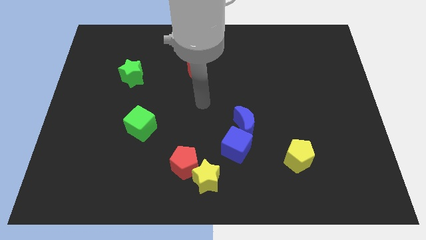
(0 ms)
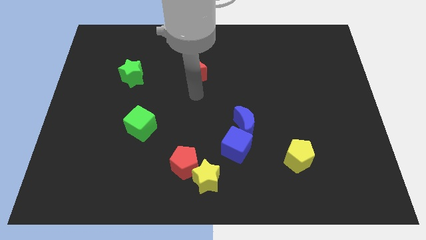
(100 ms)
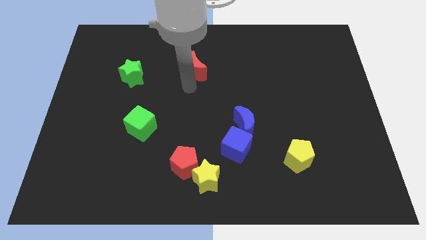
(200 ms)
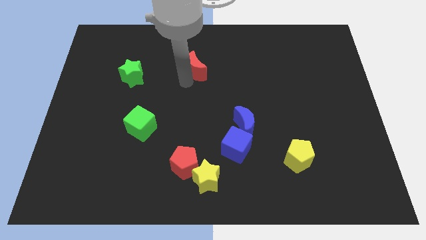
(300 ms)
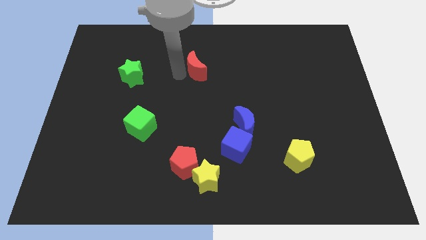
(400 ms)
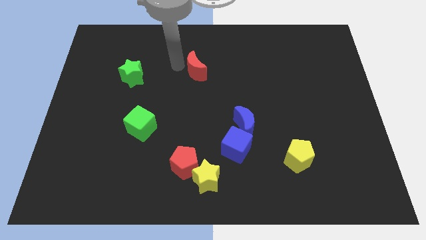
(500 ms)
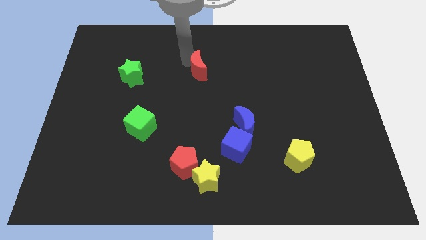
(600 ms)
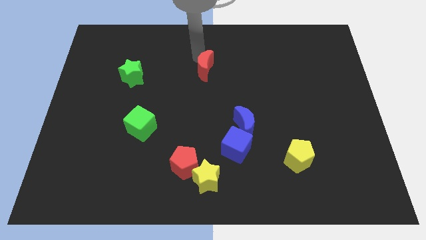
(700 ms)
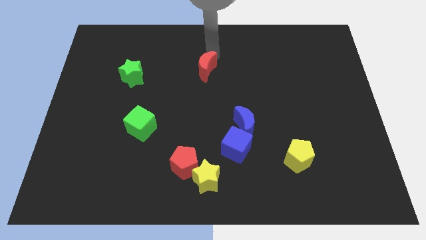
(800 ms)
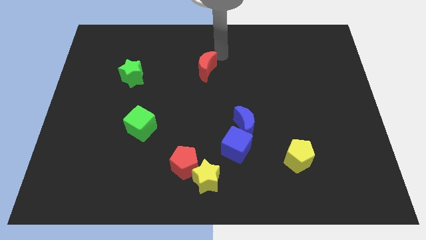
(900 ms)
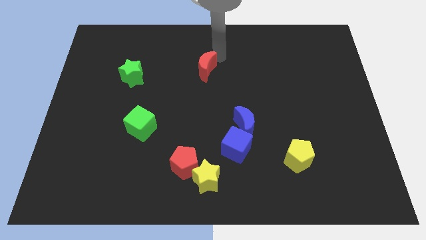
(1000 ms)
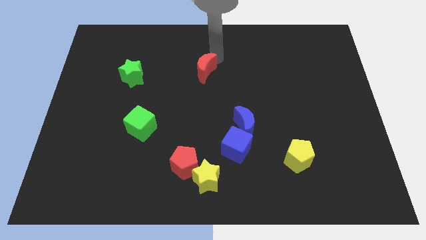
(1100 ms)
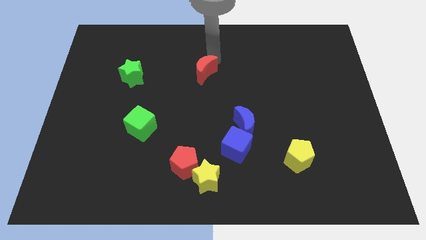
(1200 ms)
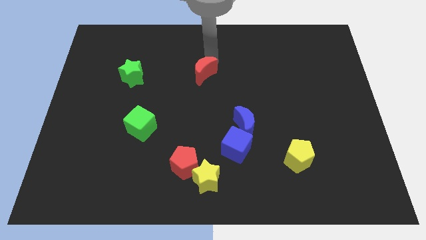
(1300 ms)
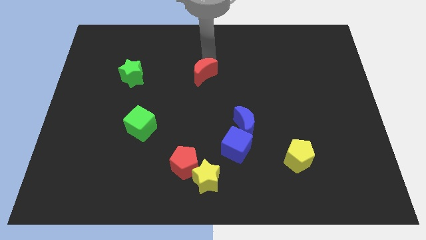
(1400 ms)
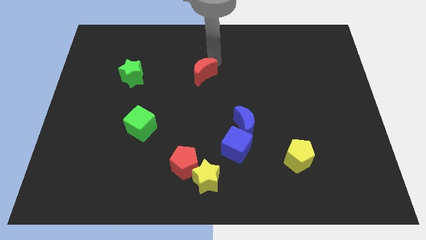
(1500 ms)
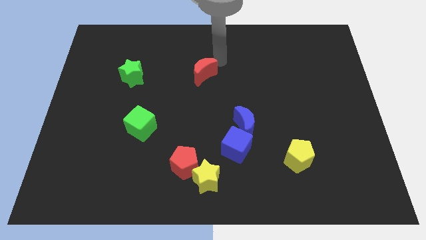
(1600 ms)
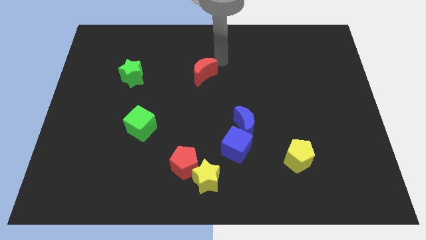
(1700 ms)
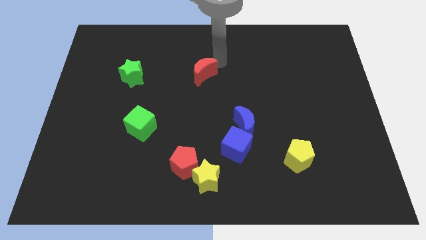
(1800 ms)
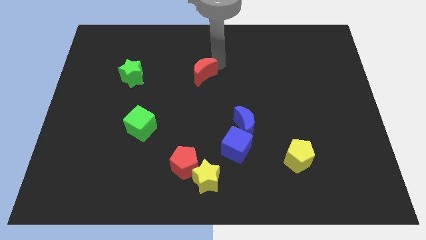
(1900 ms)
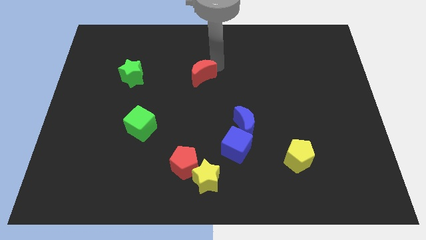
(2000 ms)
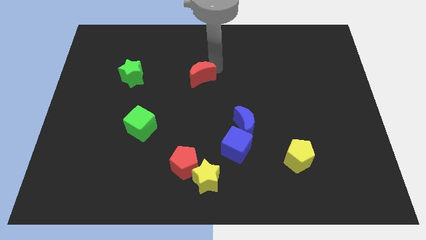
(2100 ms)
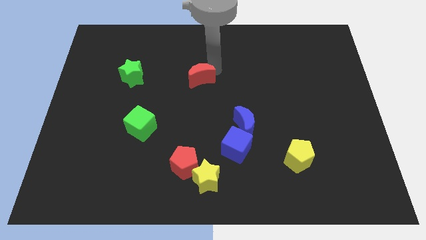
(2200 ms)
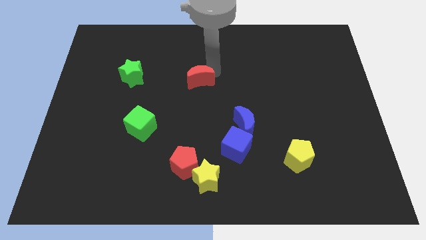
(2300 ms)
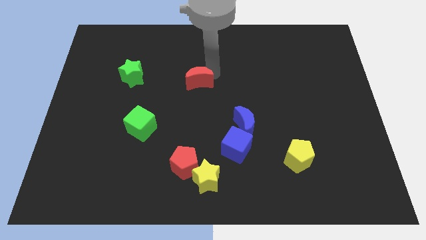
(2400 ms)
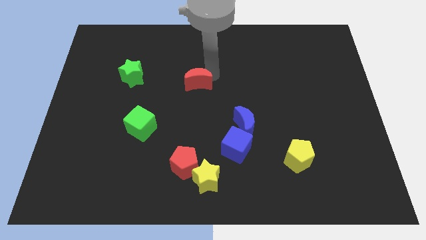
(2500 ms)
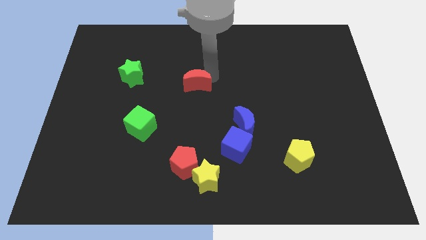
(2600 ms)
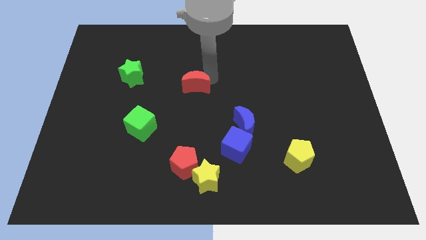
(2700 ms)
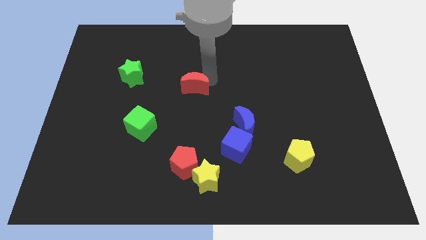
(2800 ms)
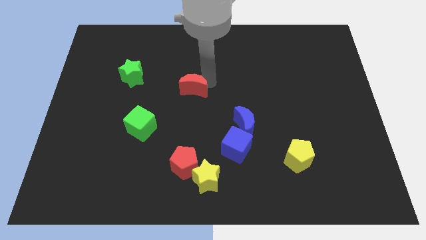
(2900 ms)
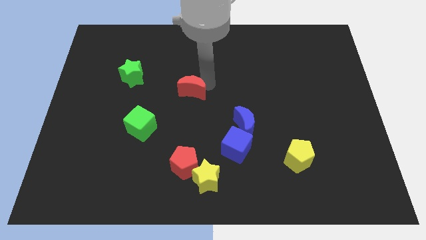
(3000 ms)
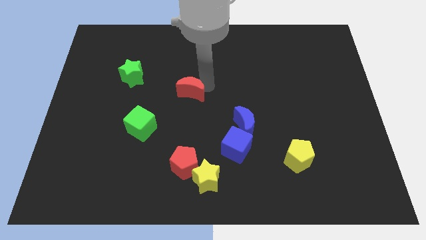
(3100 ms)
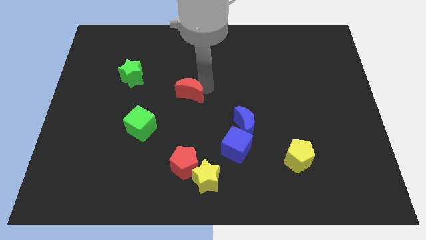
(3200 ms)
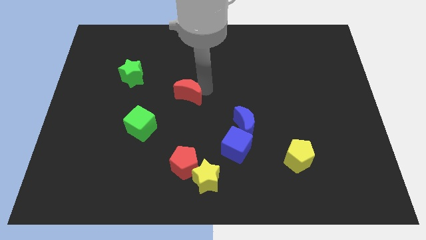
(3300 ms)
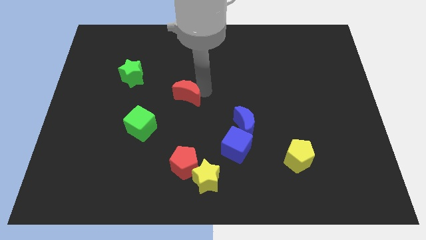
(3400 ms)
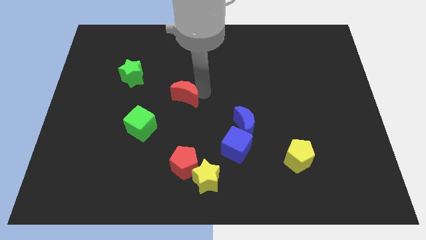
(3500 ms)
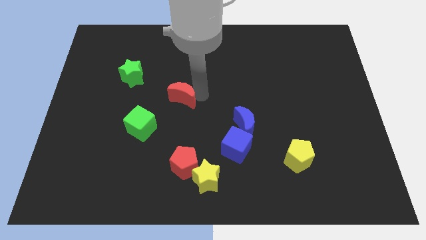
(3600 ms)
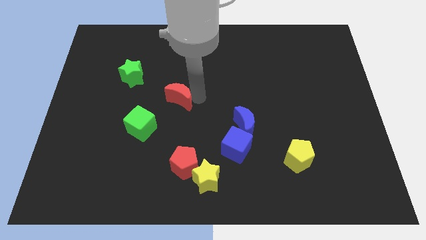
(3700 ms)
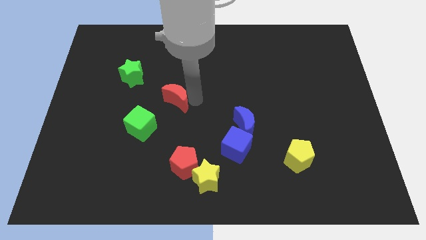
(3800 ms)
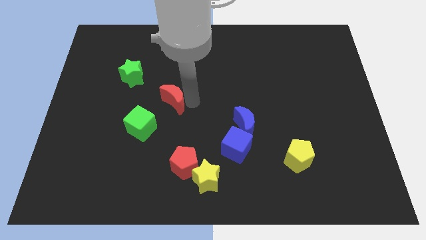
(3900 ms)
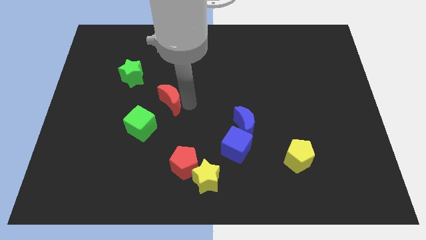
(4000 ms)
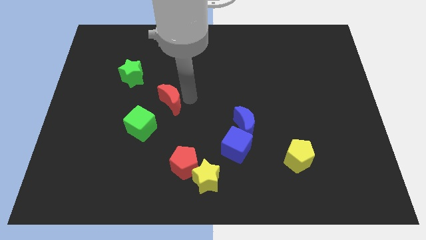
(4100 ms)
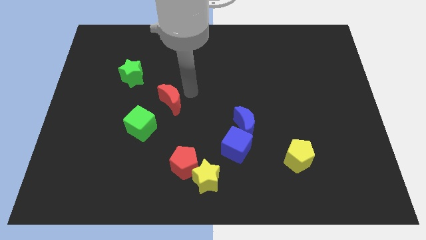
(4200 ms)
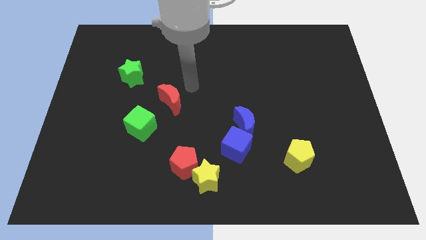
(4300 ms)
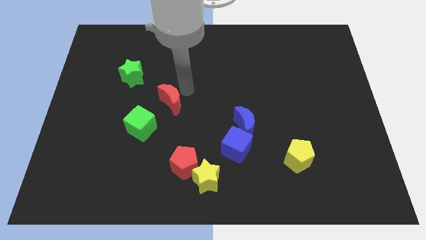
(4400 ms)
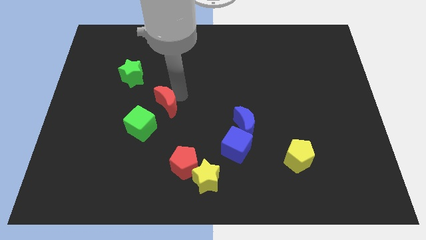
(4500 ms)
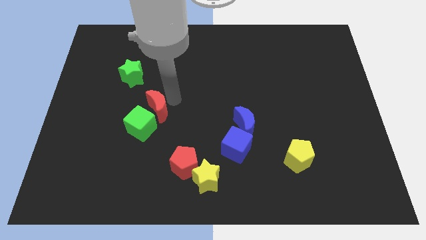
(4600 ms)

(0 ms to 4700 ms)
move the red moon next to the green cube

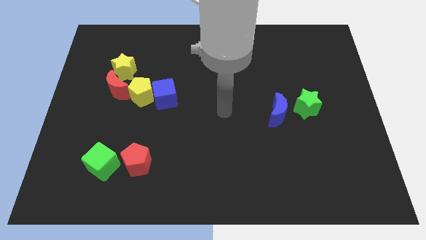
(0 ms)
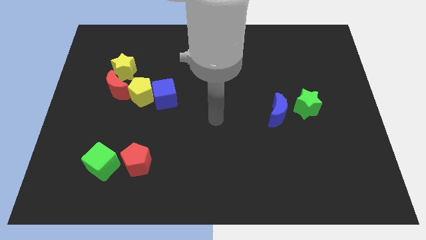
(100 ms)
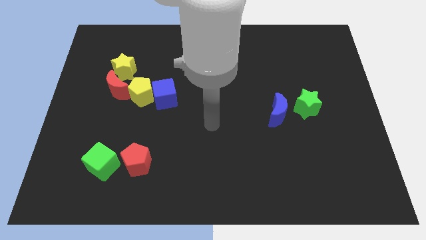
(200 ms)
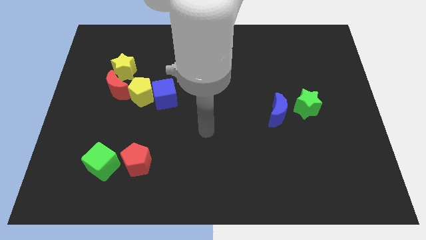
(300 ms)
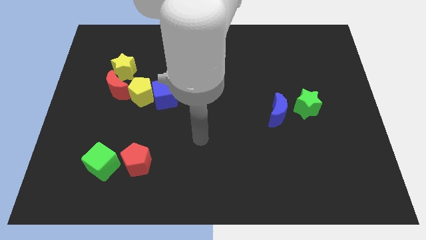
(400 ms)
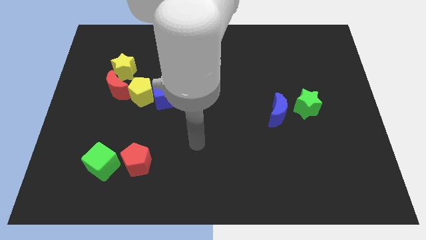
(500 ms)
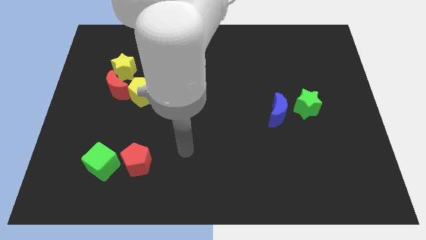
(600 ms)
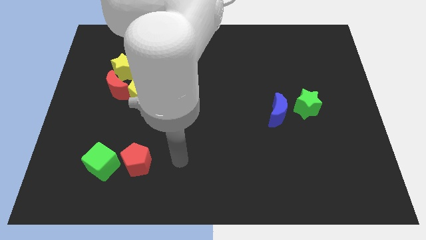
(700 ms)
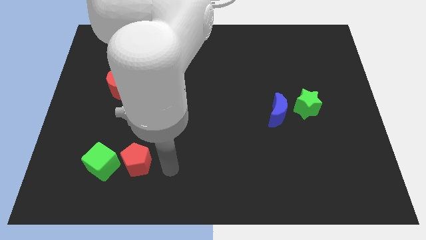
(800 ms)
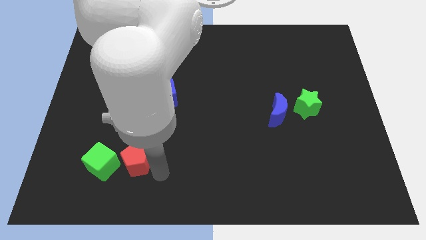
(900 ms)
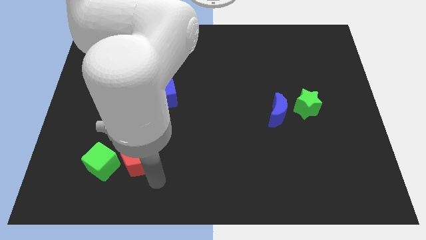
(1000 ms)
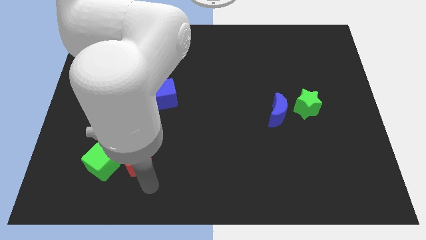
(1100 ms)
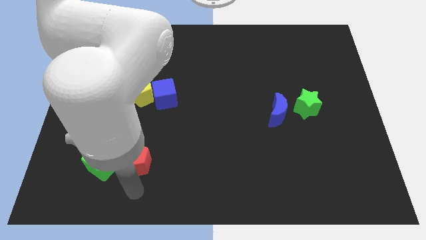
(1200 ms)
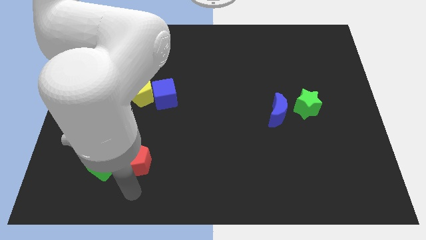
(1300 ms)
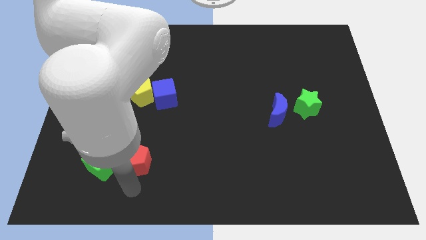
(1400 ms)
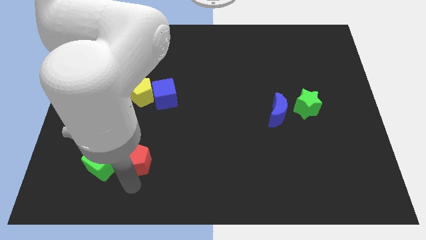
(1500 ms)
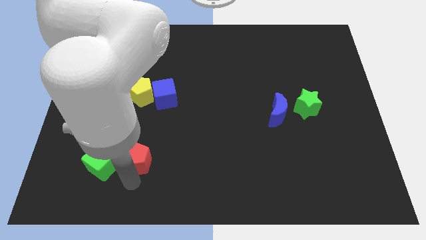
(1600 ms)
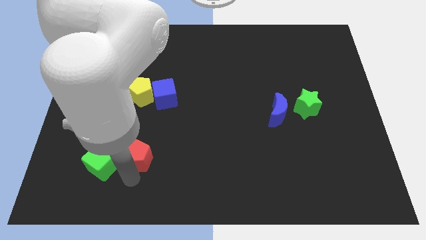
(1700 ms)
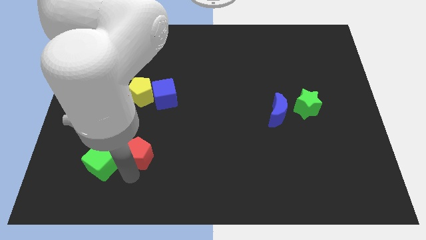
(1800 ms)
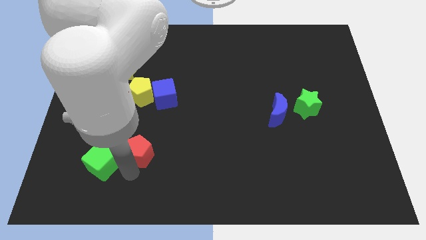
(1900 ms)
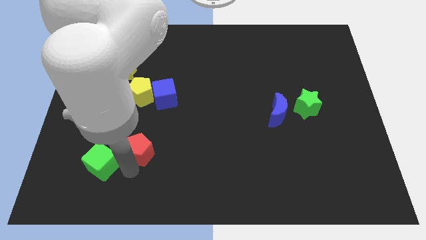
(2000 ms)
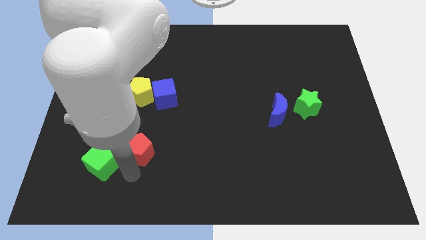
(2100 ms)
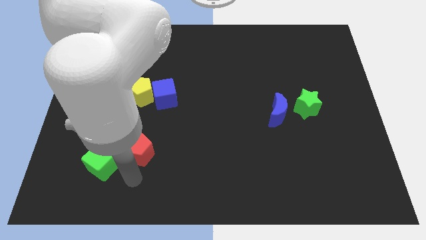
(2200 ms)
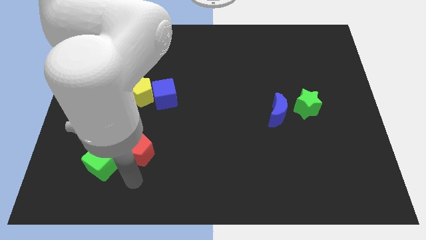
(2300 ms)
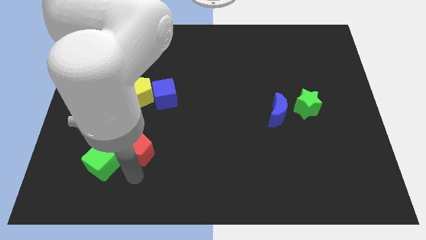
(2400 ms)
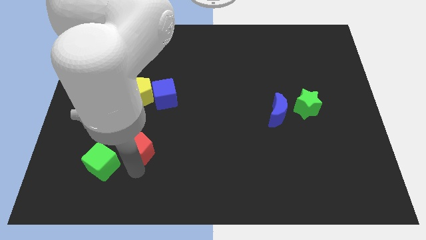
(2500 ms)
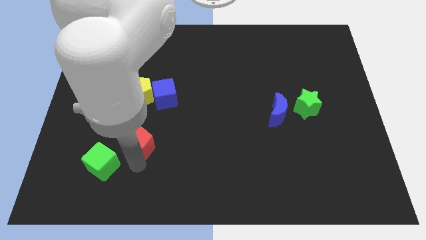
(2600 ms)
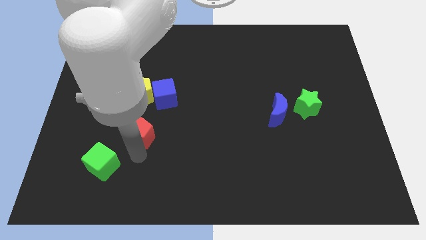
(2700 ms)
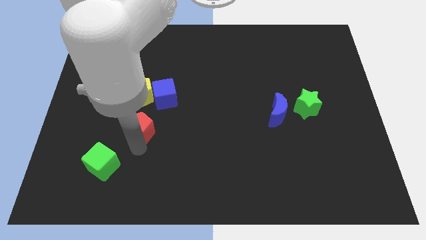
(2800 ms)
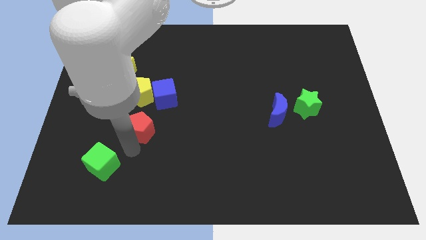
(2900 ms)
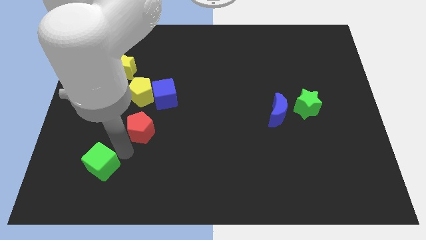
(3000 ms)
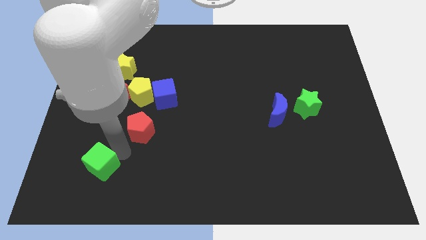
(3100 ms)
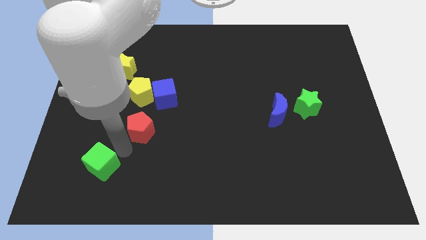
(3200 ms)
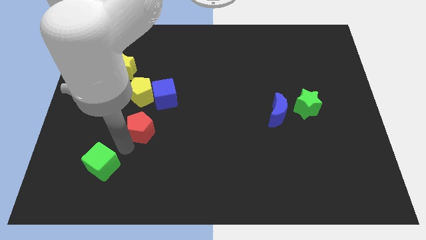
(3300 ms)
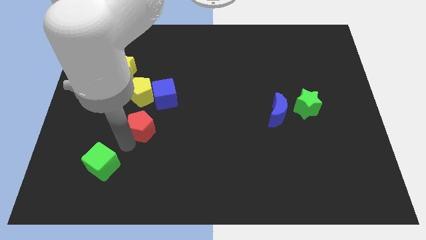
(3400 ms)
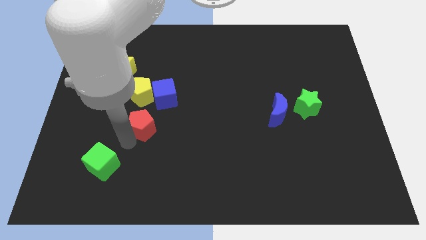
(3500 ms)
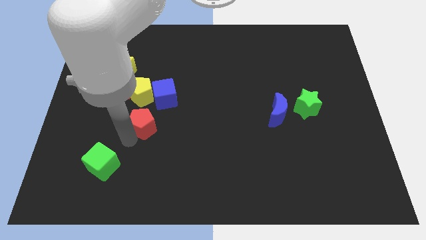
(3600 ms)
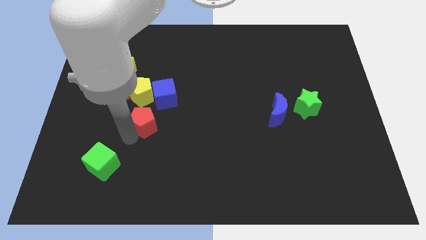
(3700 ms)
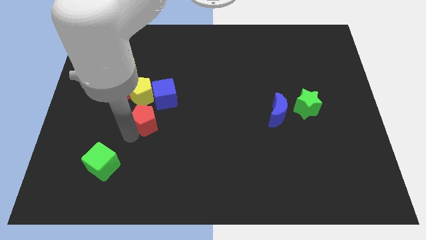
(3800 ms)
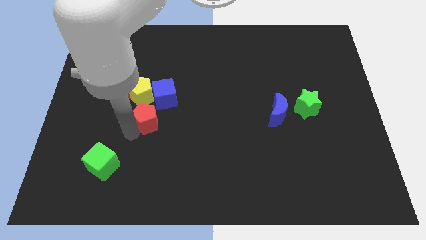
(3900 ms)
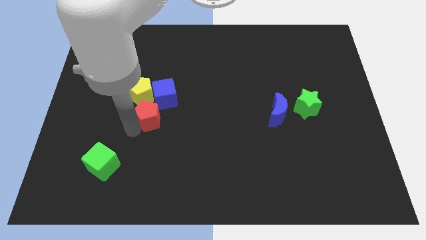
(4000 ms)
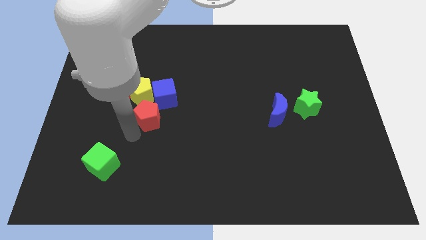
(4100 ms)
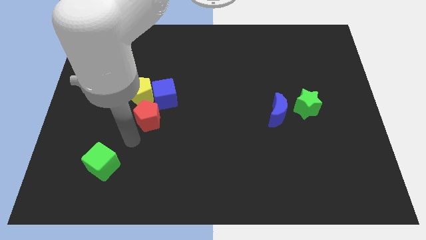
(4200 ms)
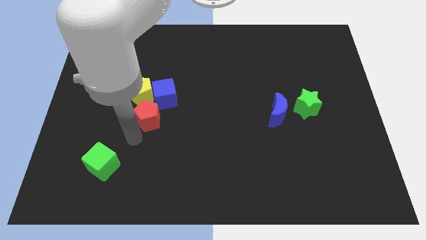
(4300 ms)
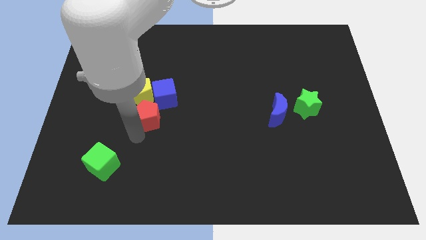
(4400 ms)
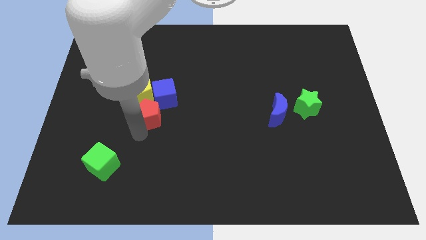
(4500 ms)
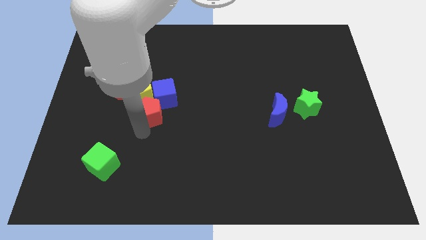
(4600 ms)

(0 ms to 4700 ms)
slide the red pentagon next to the blue cube
